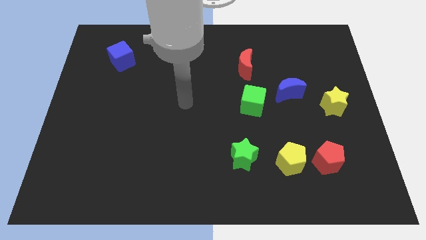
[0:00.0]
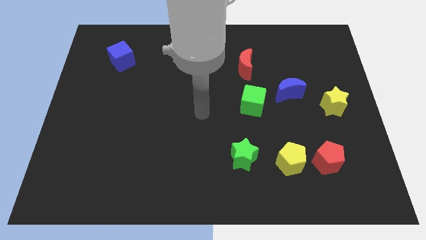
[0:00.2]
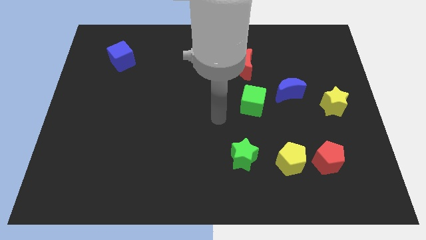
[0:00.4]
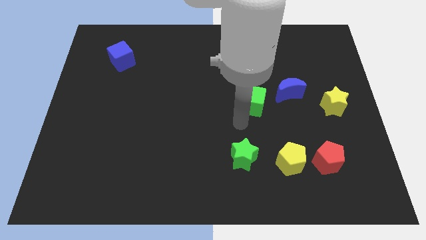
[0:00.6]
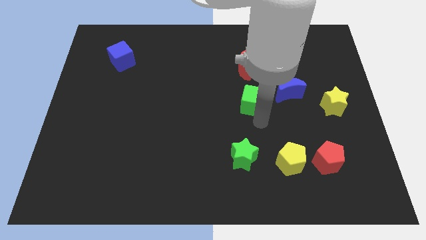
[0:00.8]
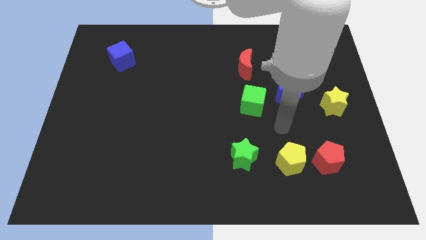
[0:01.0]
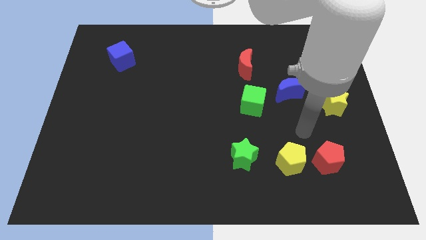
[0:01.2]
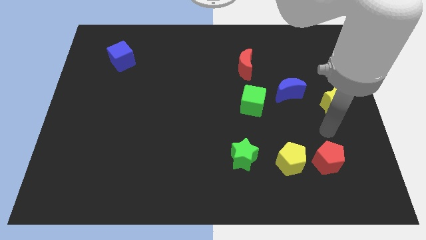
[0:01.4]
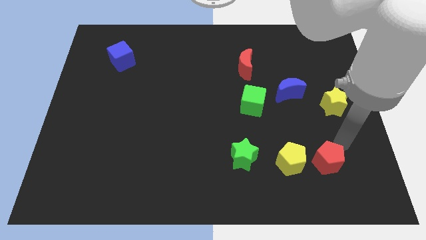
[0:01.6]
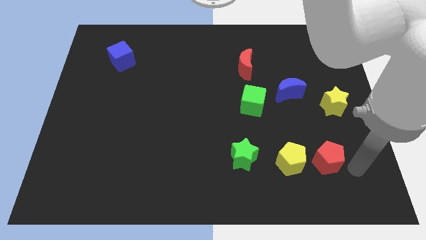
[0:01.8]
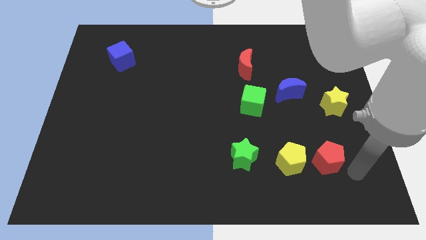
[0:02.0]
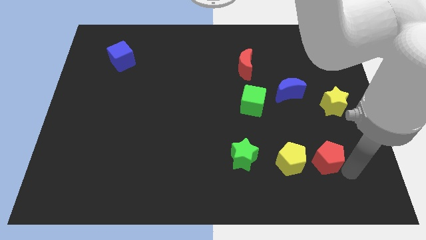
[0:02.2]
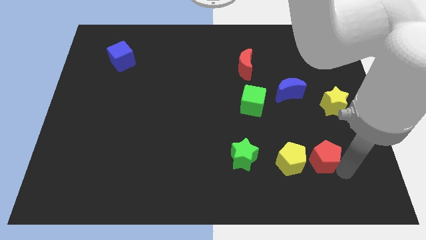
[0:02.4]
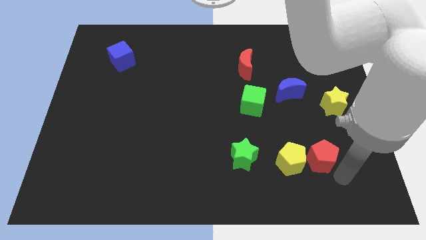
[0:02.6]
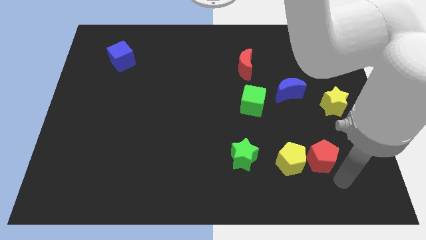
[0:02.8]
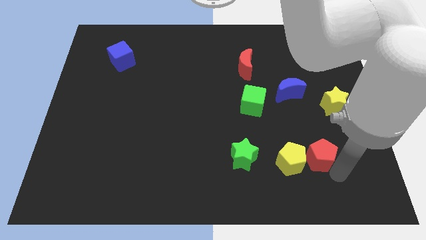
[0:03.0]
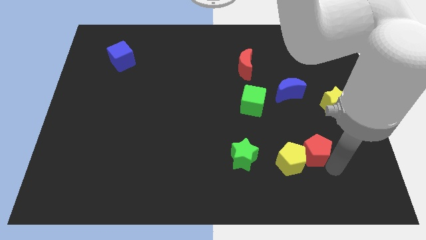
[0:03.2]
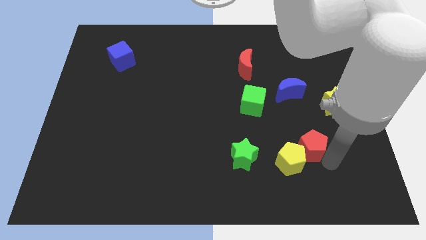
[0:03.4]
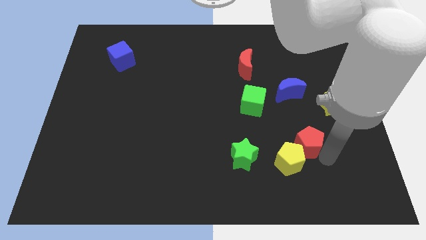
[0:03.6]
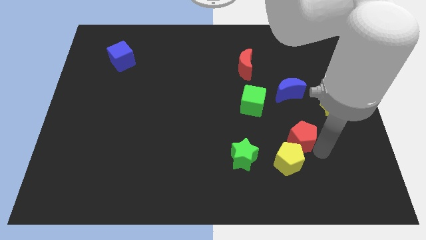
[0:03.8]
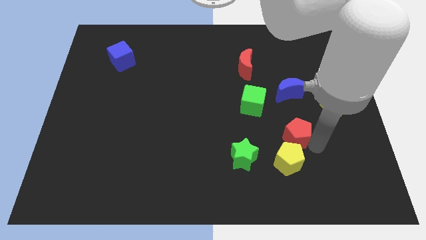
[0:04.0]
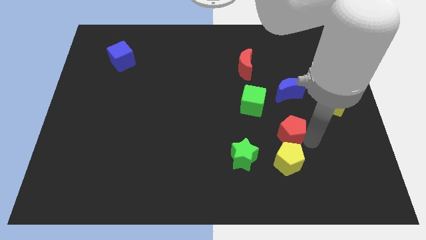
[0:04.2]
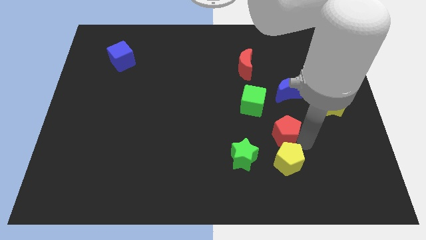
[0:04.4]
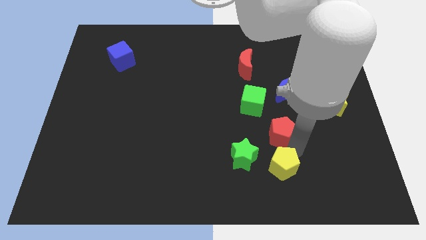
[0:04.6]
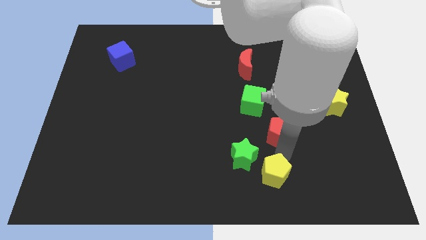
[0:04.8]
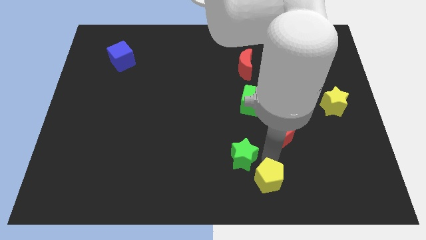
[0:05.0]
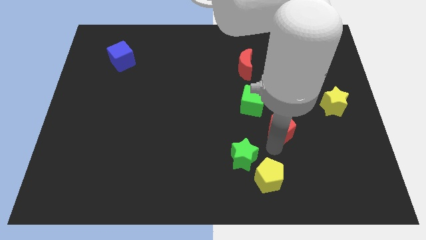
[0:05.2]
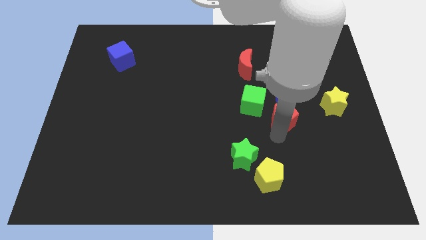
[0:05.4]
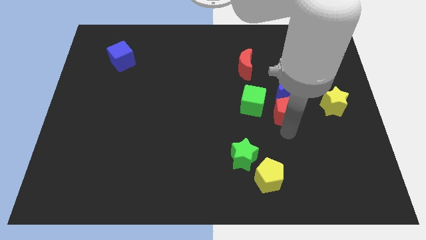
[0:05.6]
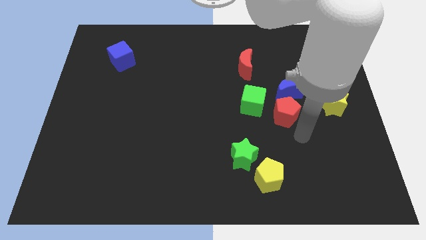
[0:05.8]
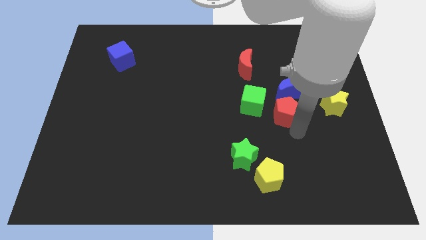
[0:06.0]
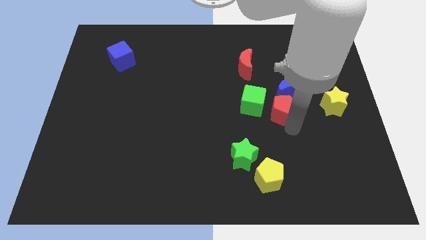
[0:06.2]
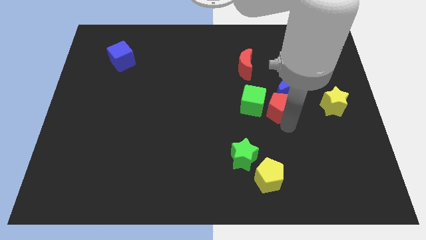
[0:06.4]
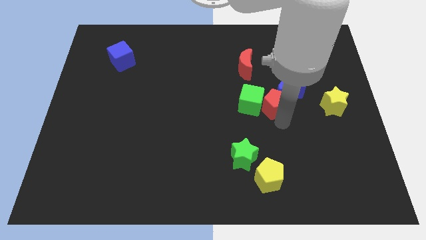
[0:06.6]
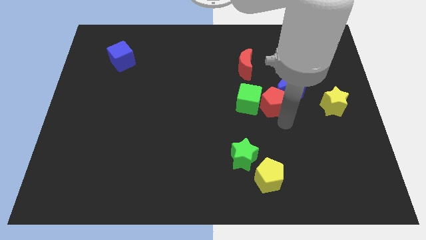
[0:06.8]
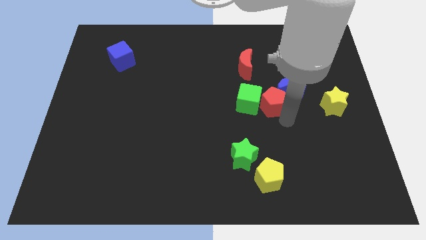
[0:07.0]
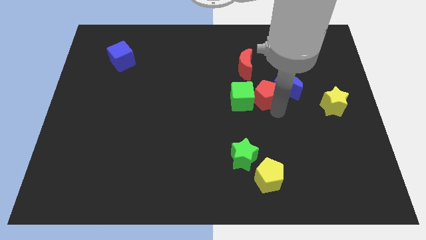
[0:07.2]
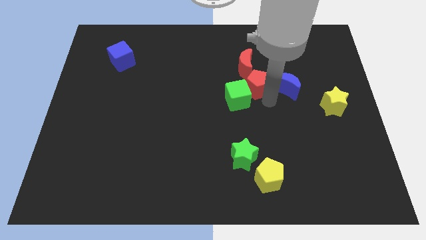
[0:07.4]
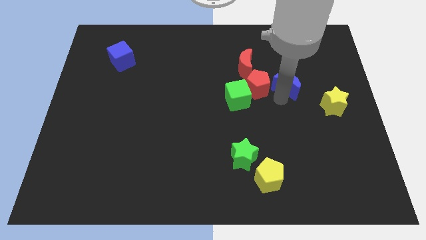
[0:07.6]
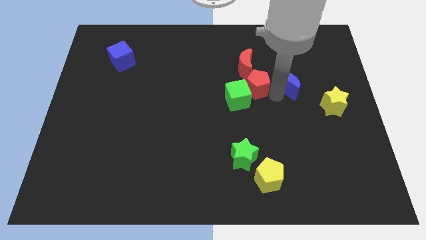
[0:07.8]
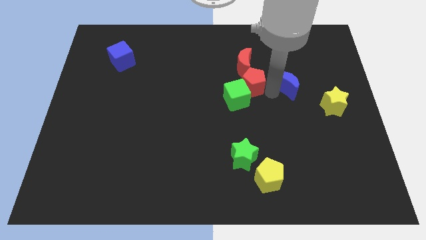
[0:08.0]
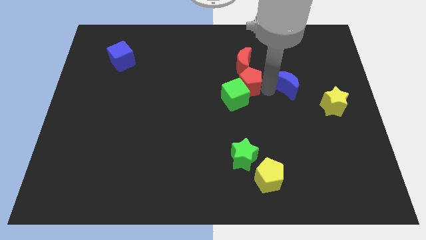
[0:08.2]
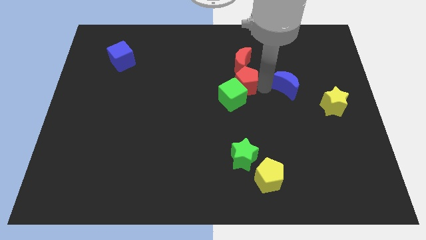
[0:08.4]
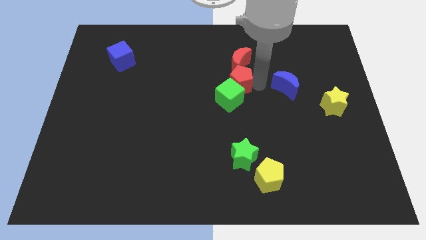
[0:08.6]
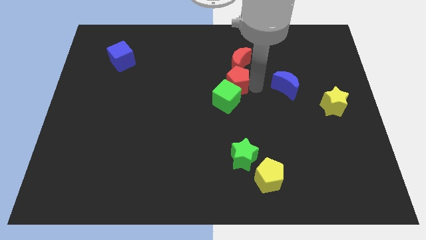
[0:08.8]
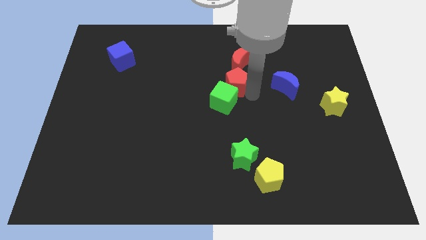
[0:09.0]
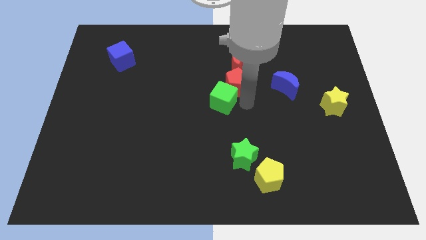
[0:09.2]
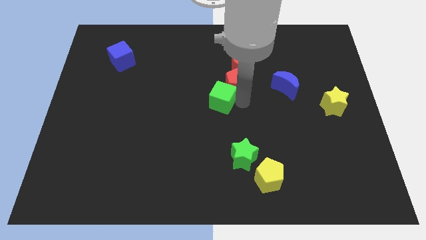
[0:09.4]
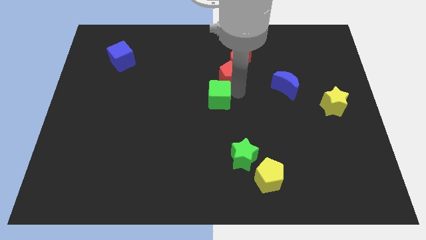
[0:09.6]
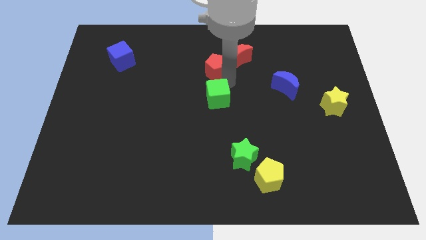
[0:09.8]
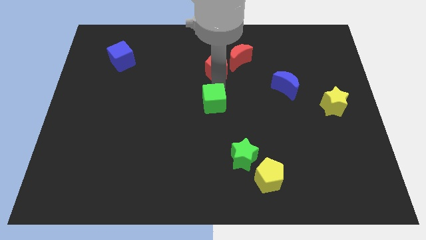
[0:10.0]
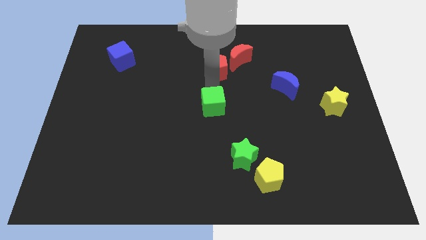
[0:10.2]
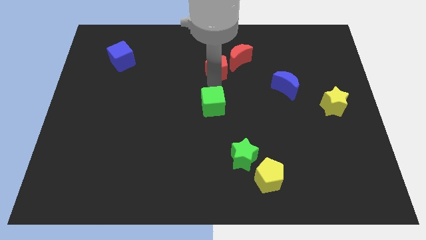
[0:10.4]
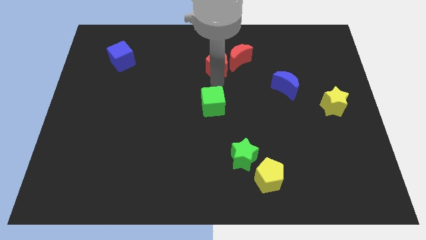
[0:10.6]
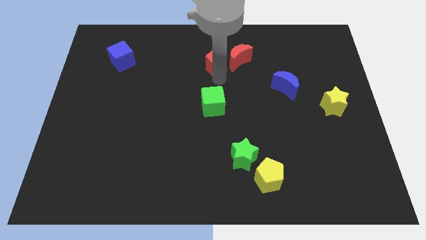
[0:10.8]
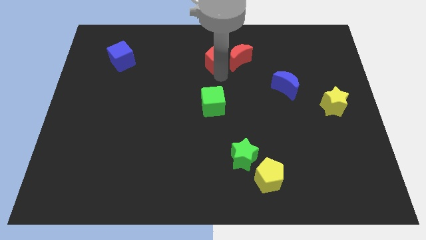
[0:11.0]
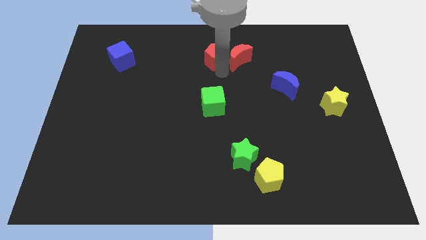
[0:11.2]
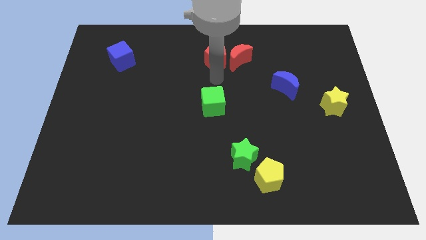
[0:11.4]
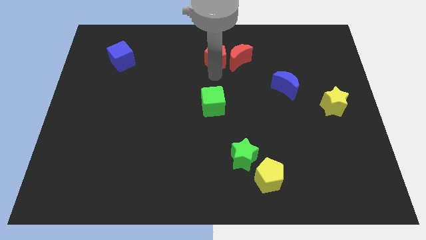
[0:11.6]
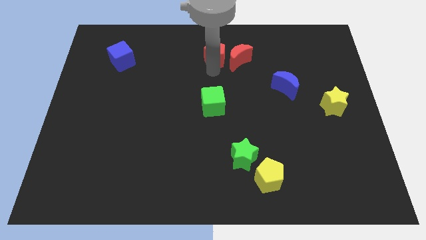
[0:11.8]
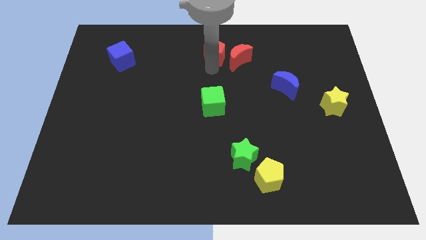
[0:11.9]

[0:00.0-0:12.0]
put the red pentagon to the top

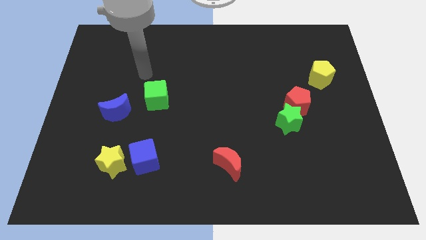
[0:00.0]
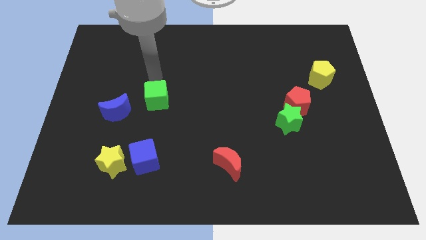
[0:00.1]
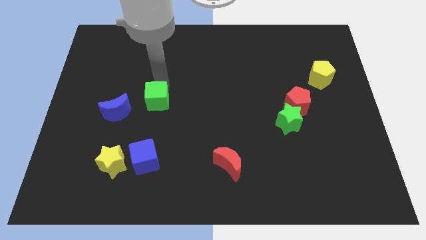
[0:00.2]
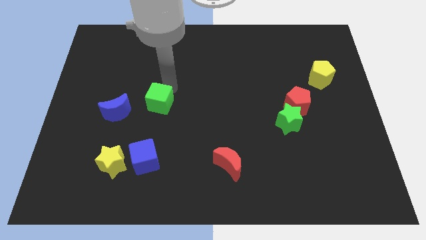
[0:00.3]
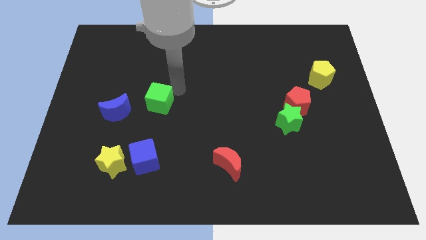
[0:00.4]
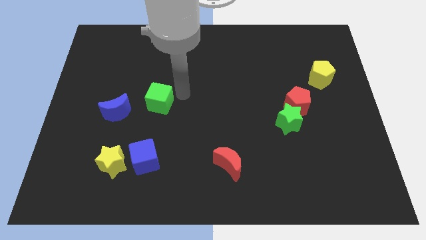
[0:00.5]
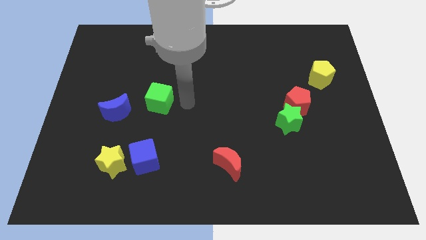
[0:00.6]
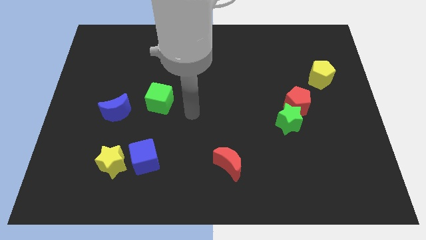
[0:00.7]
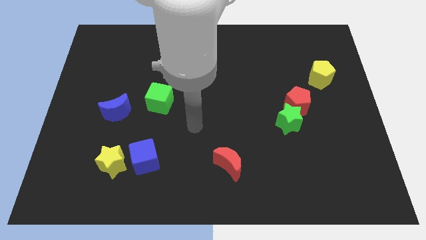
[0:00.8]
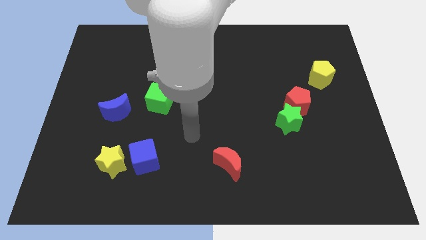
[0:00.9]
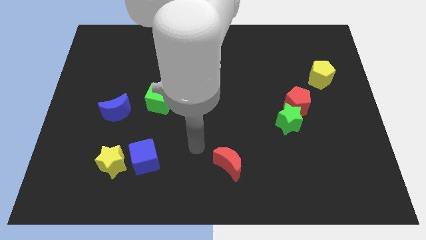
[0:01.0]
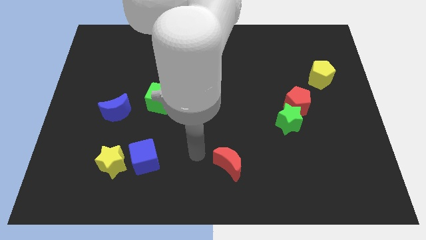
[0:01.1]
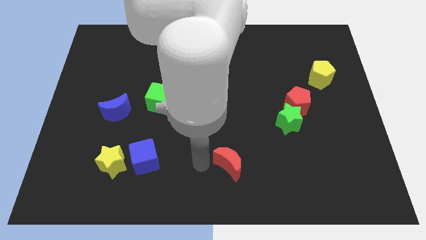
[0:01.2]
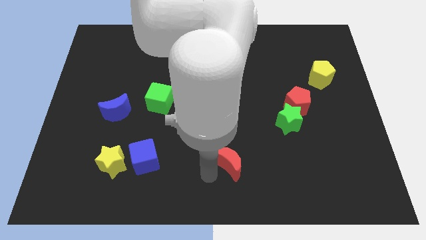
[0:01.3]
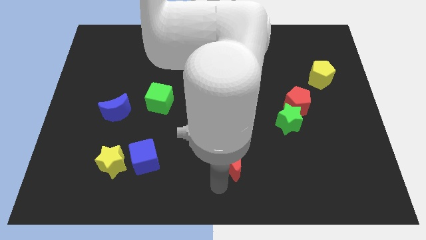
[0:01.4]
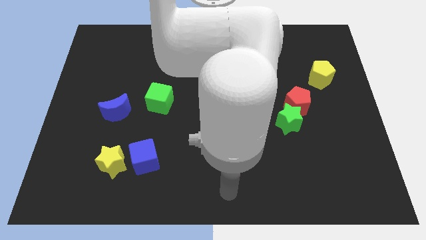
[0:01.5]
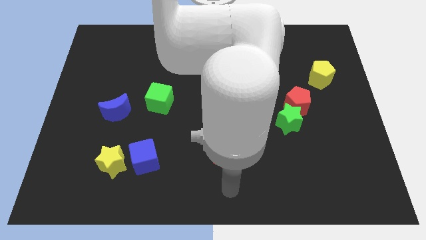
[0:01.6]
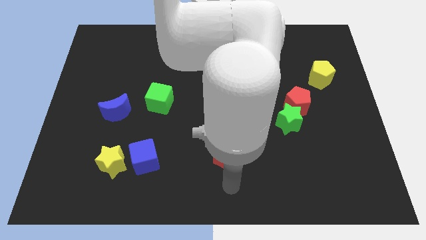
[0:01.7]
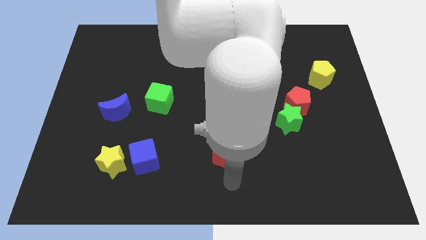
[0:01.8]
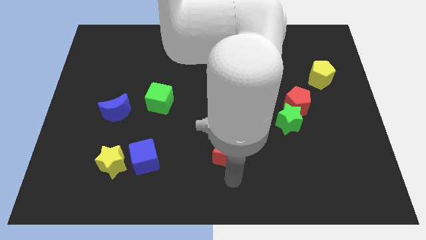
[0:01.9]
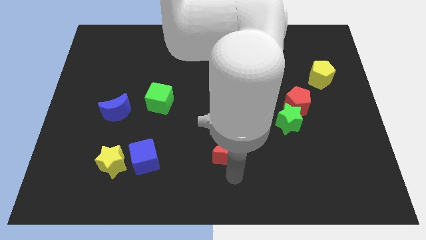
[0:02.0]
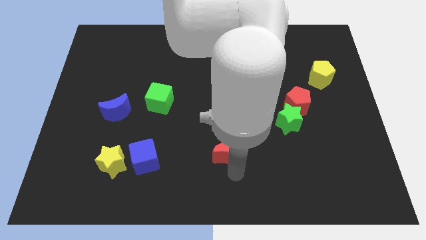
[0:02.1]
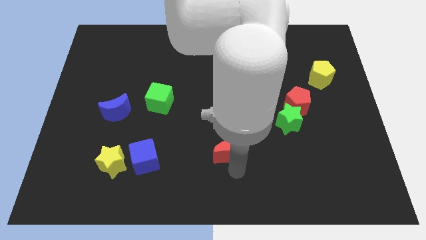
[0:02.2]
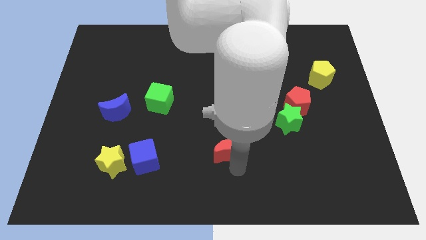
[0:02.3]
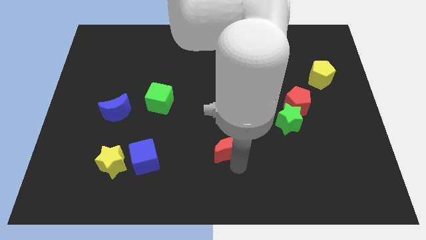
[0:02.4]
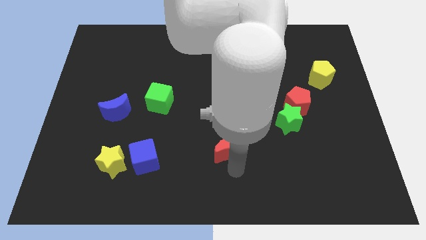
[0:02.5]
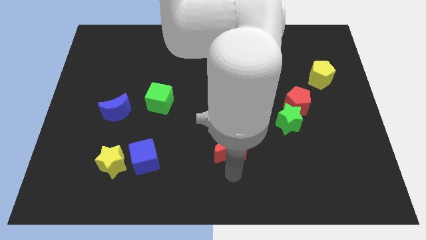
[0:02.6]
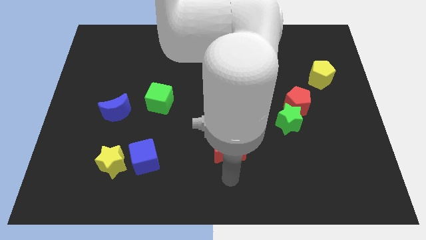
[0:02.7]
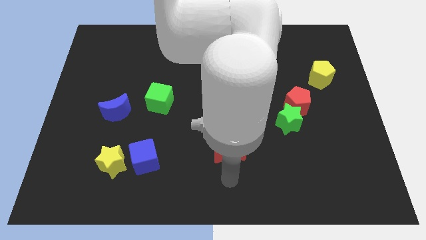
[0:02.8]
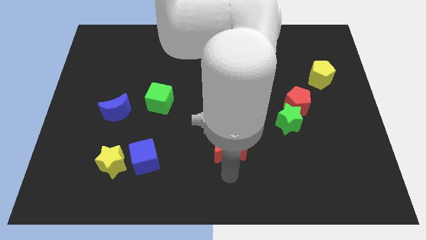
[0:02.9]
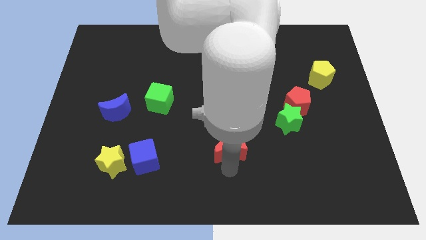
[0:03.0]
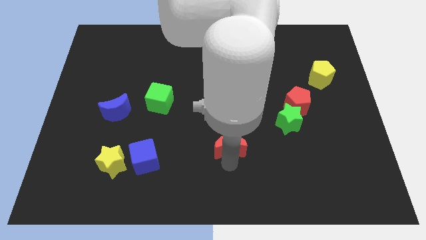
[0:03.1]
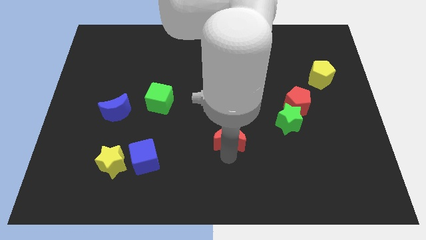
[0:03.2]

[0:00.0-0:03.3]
push the red moon to the middle of the board
